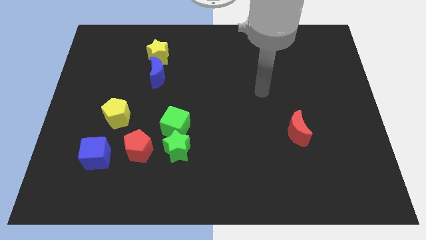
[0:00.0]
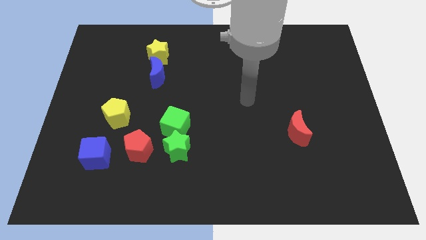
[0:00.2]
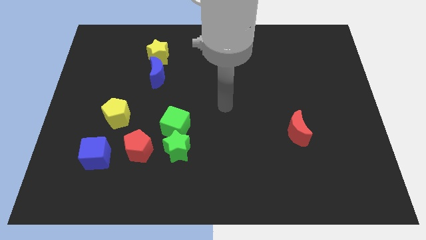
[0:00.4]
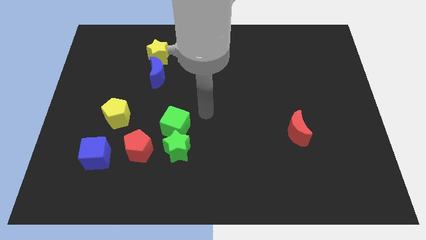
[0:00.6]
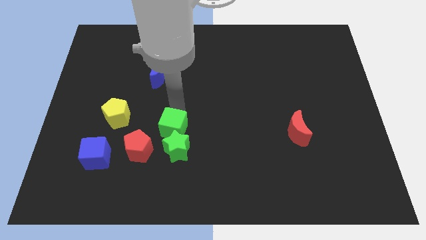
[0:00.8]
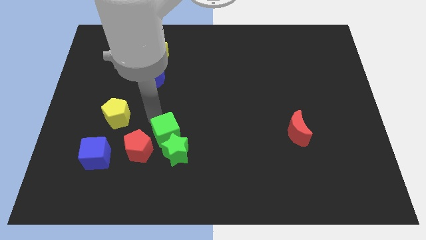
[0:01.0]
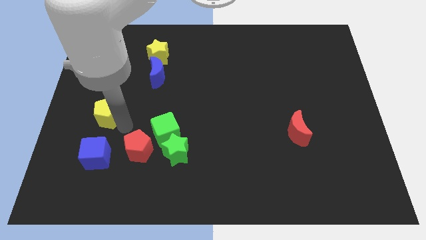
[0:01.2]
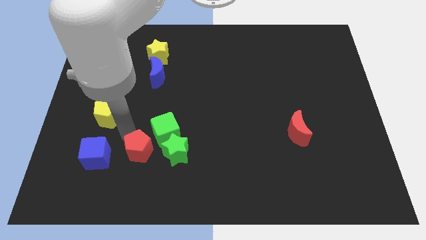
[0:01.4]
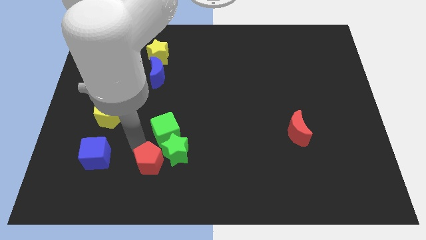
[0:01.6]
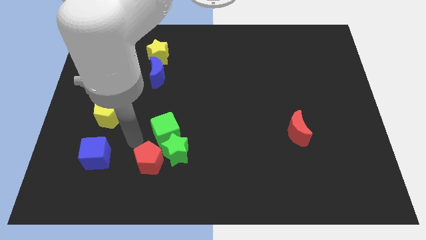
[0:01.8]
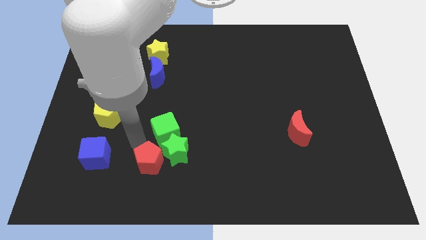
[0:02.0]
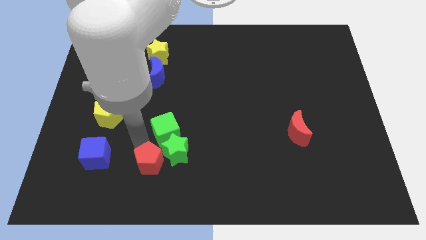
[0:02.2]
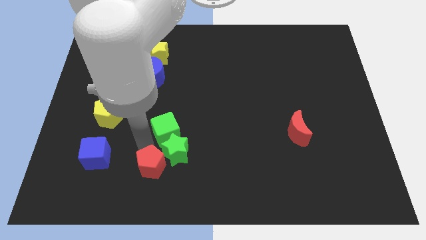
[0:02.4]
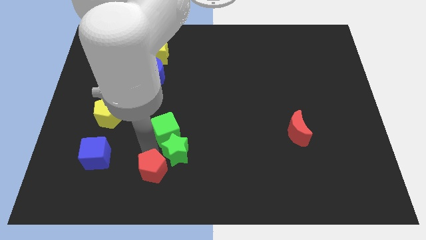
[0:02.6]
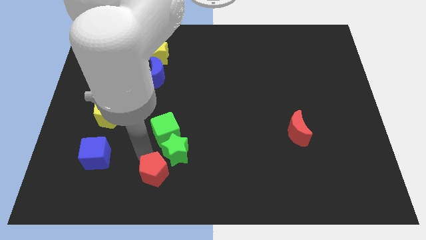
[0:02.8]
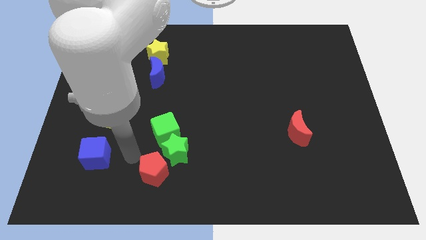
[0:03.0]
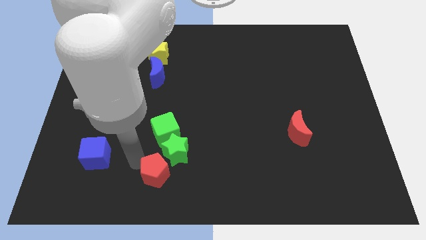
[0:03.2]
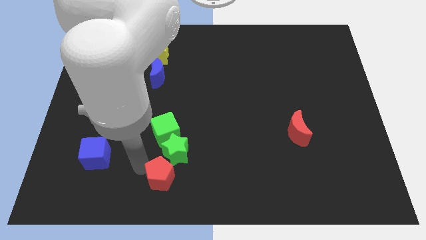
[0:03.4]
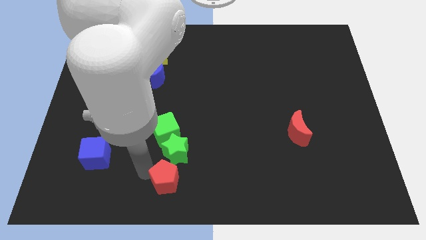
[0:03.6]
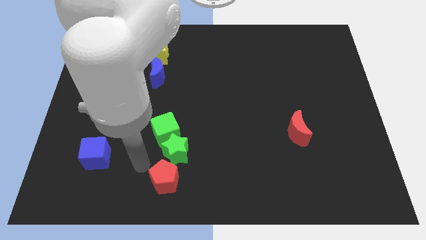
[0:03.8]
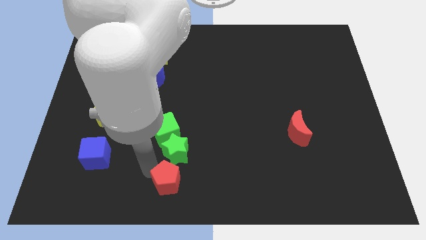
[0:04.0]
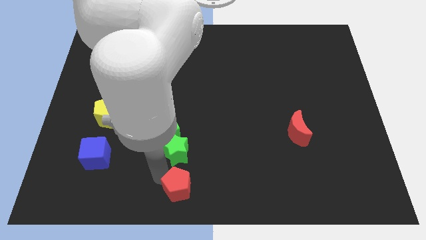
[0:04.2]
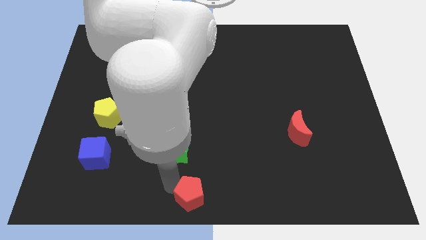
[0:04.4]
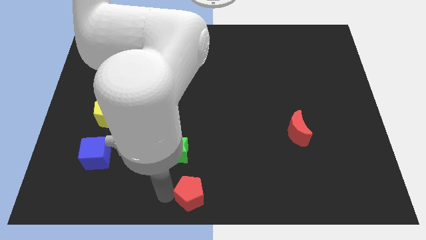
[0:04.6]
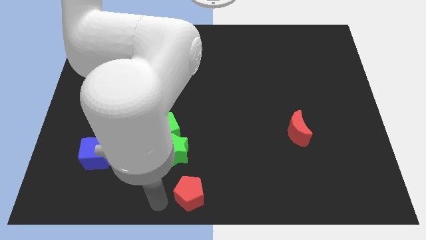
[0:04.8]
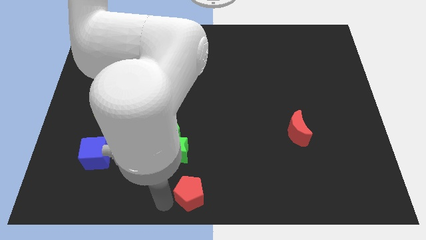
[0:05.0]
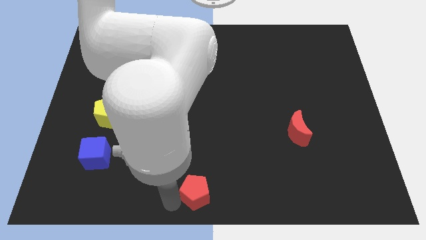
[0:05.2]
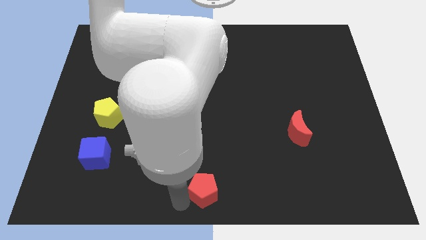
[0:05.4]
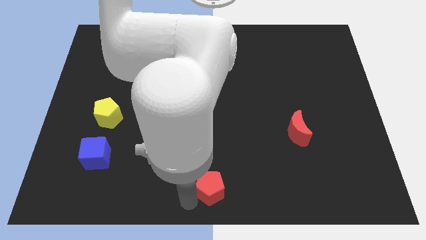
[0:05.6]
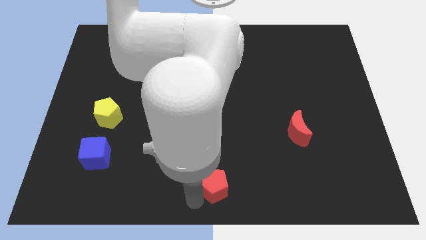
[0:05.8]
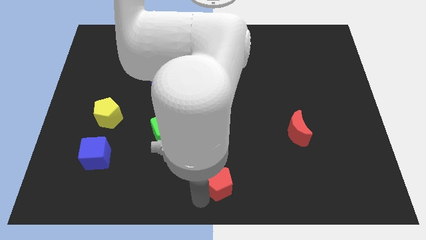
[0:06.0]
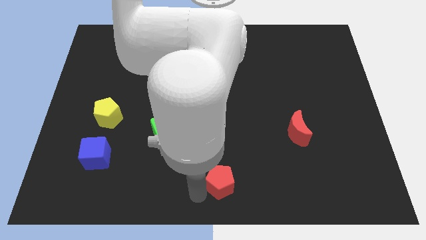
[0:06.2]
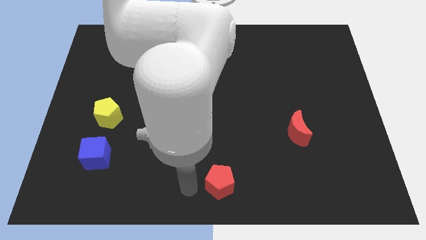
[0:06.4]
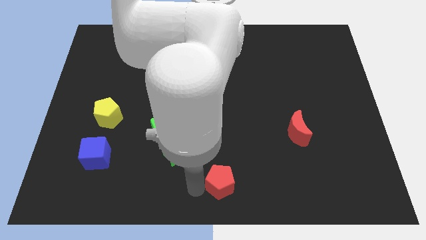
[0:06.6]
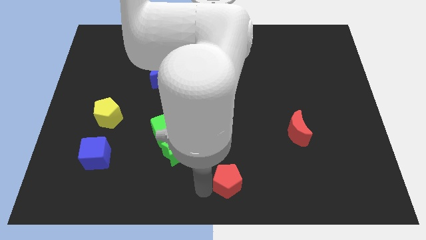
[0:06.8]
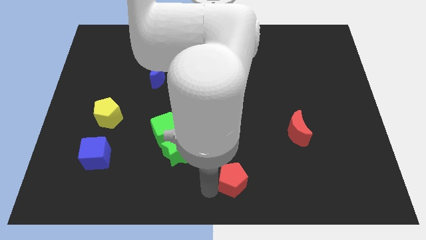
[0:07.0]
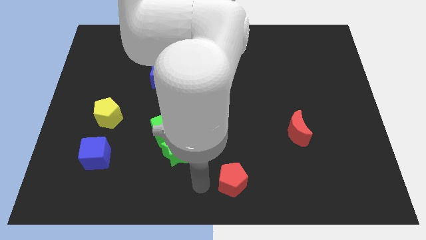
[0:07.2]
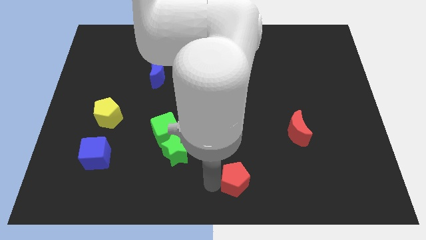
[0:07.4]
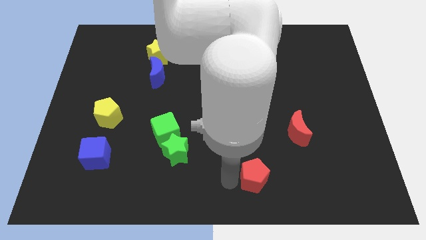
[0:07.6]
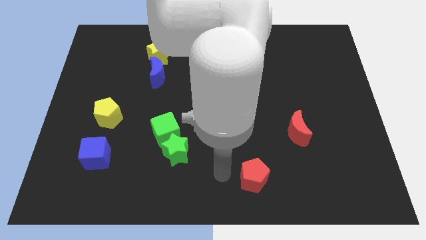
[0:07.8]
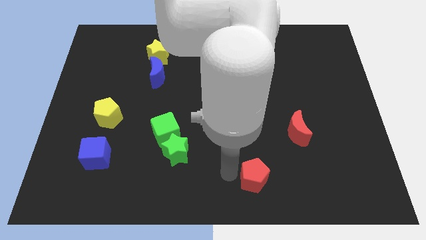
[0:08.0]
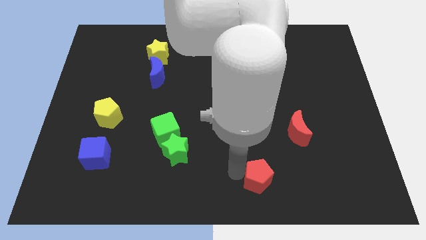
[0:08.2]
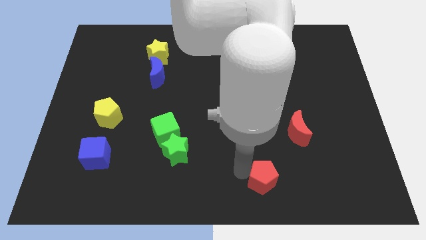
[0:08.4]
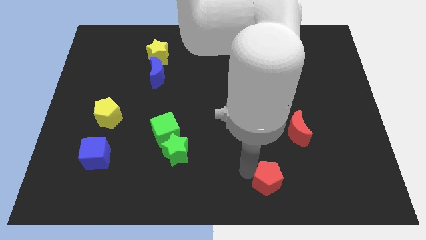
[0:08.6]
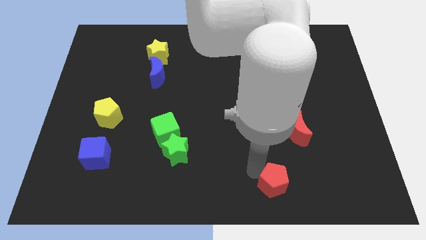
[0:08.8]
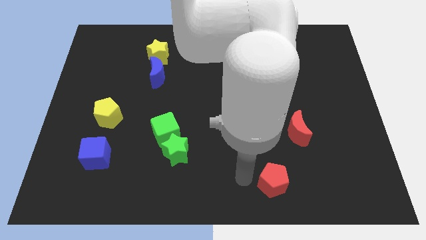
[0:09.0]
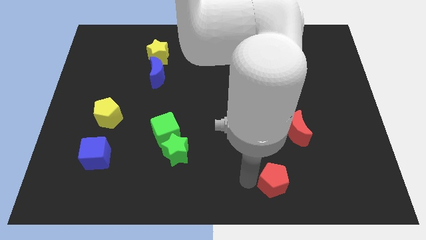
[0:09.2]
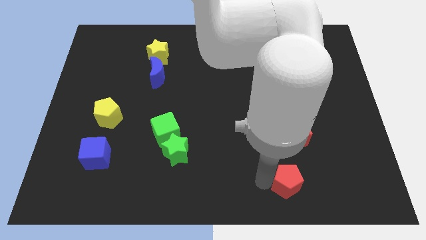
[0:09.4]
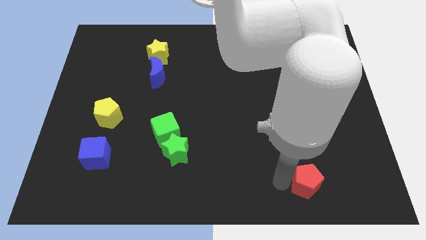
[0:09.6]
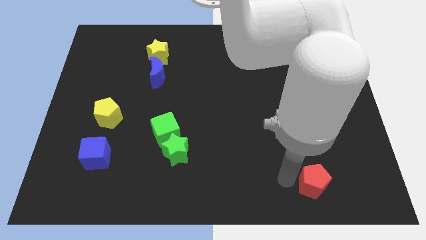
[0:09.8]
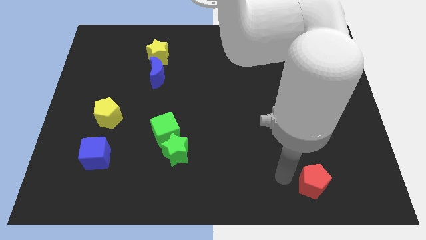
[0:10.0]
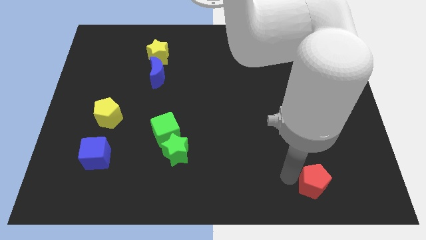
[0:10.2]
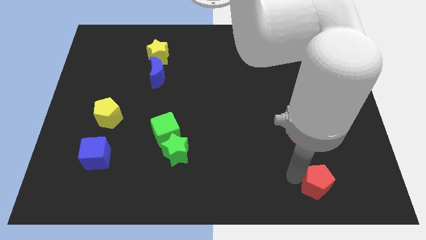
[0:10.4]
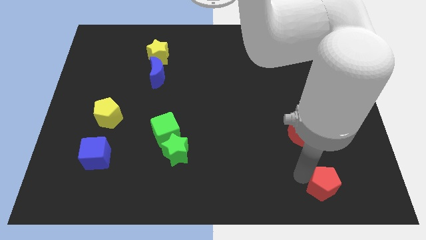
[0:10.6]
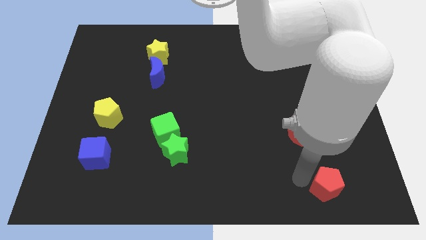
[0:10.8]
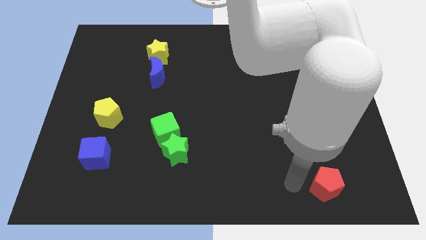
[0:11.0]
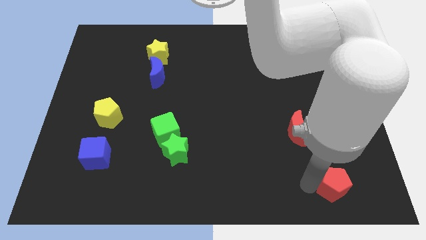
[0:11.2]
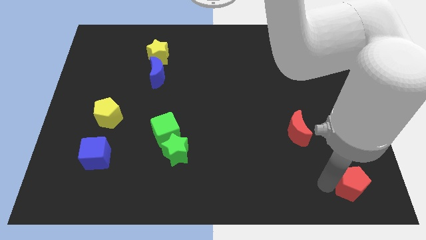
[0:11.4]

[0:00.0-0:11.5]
slide the red pentagon to the bottom right of the board

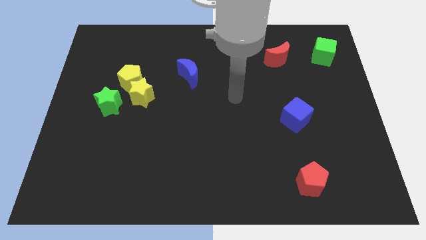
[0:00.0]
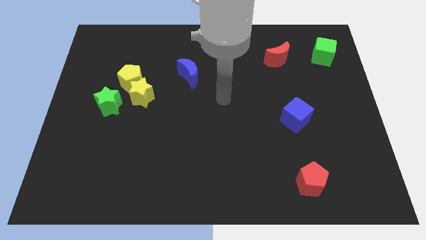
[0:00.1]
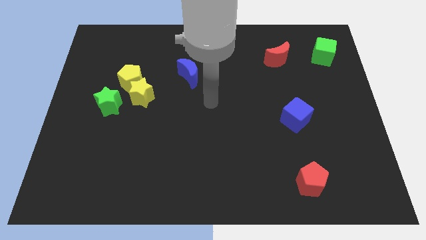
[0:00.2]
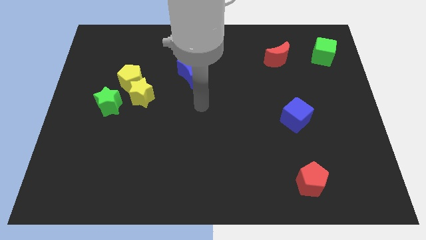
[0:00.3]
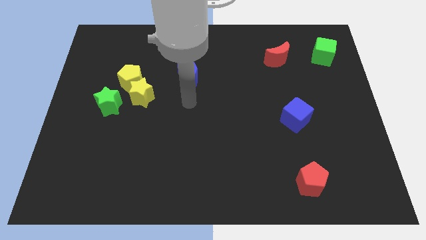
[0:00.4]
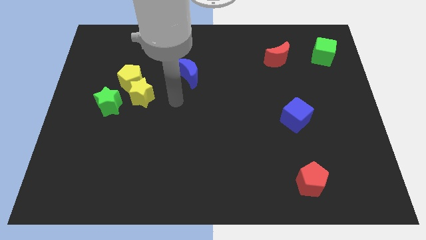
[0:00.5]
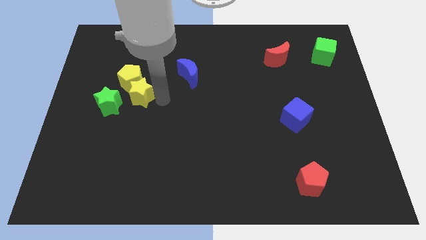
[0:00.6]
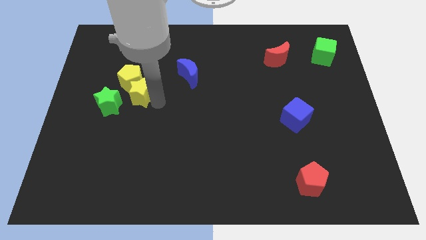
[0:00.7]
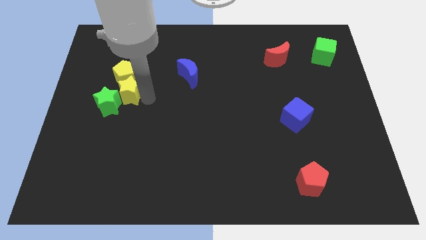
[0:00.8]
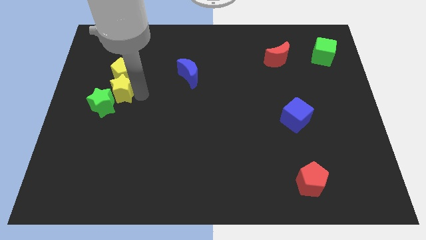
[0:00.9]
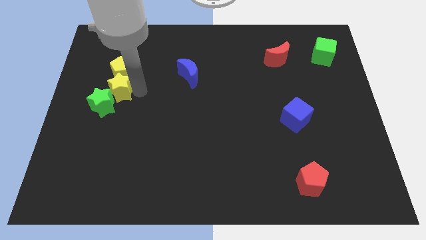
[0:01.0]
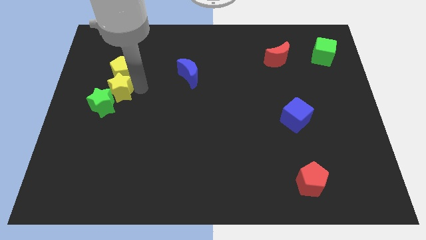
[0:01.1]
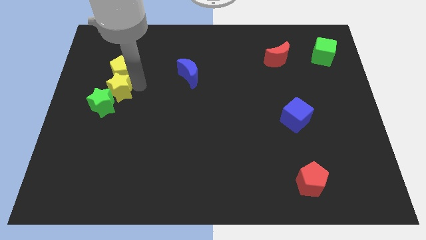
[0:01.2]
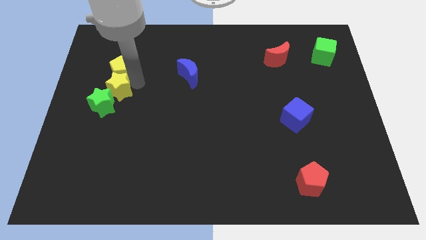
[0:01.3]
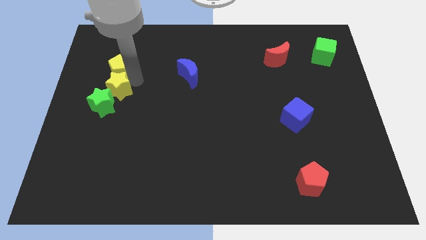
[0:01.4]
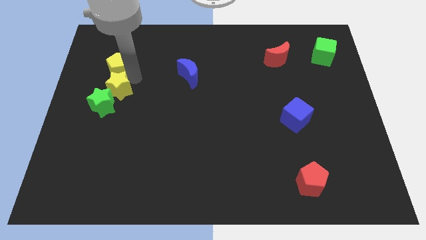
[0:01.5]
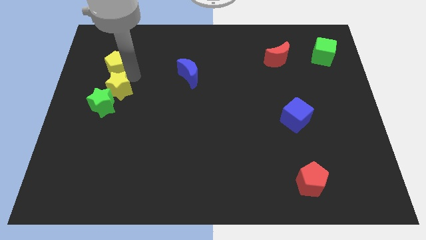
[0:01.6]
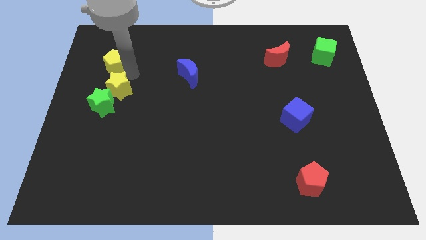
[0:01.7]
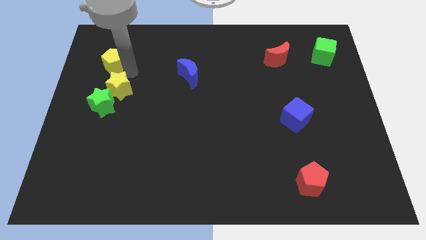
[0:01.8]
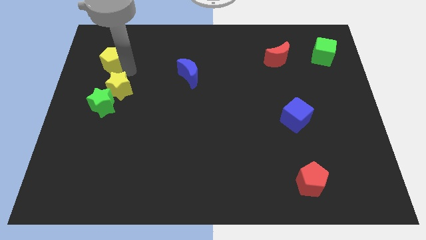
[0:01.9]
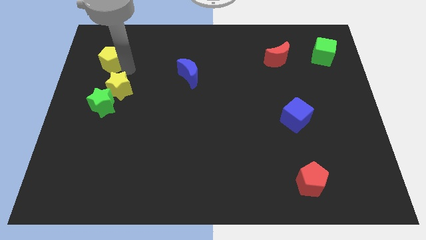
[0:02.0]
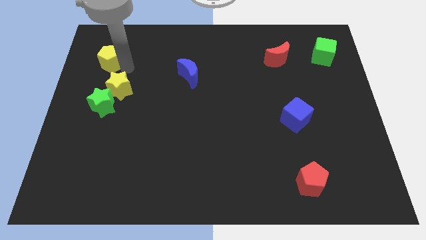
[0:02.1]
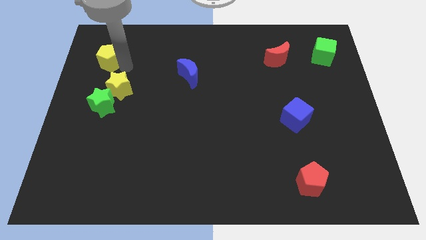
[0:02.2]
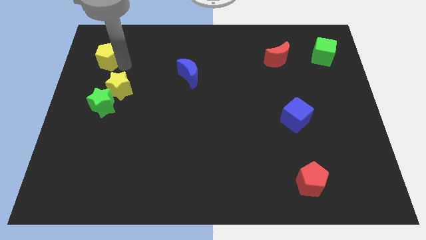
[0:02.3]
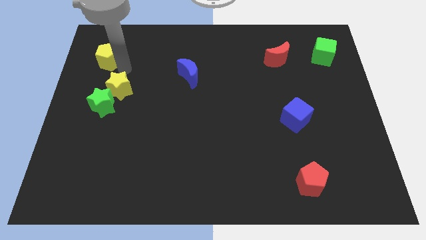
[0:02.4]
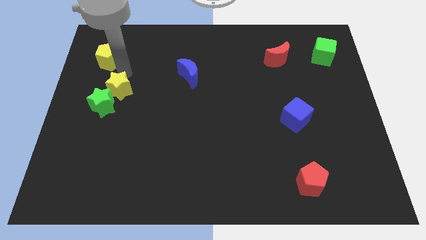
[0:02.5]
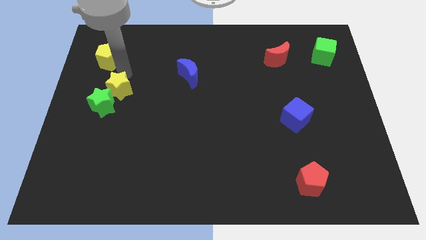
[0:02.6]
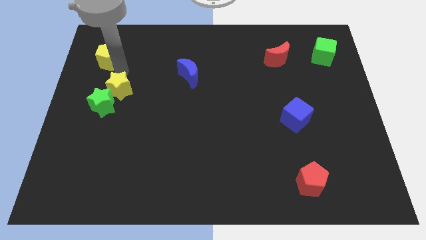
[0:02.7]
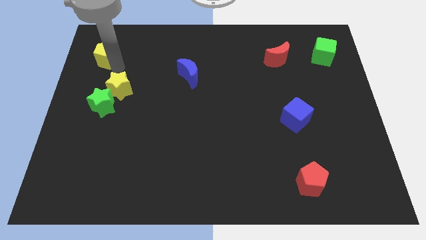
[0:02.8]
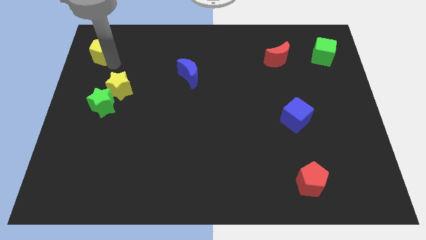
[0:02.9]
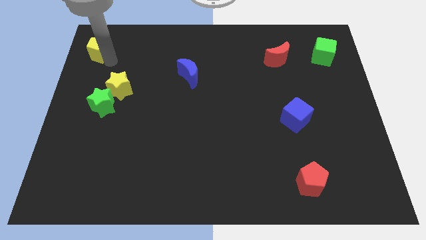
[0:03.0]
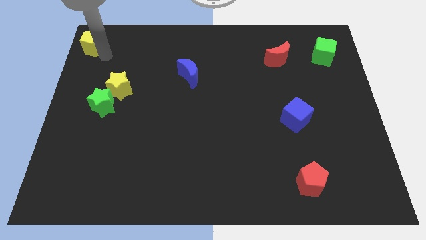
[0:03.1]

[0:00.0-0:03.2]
move the yellow pentagon to the top left
